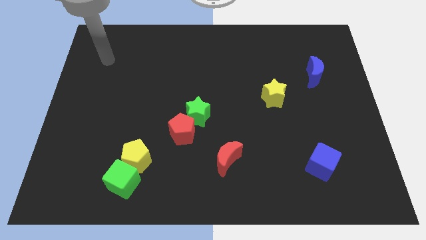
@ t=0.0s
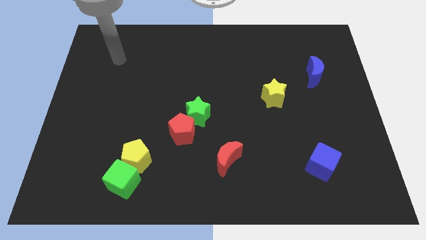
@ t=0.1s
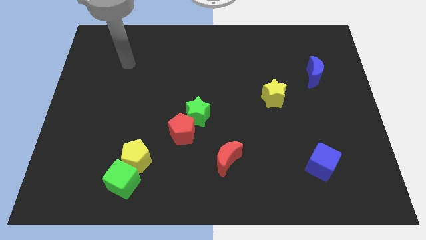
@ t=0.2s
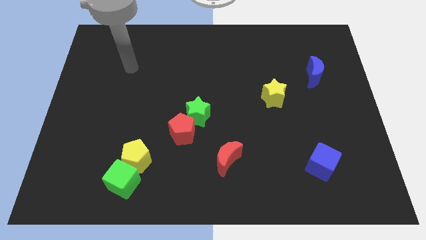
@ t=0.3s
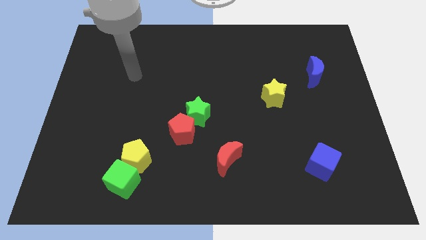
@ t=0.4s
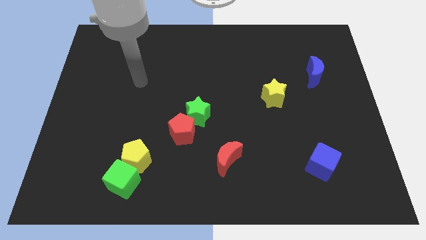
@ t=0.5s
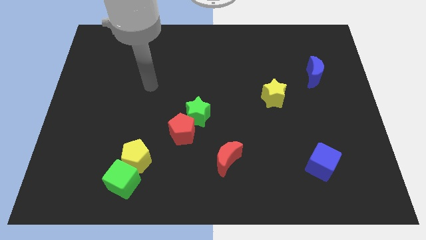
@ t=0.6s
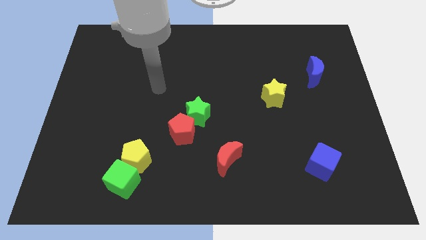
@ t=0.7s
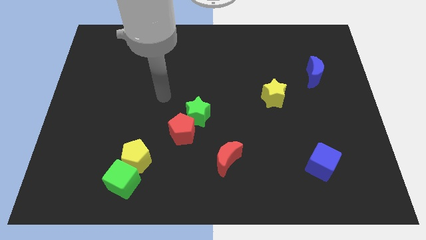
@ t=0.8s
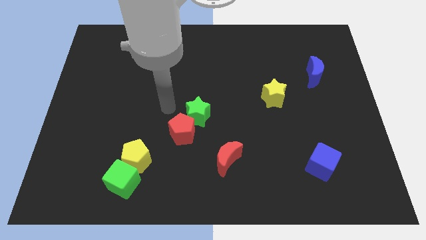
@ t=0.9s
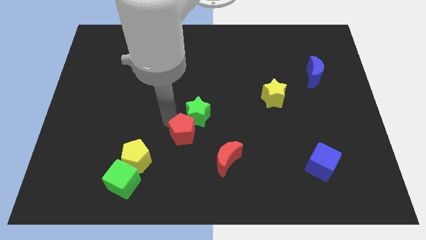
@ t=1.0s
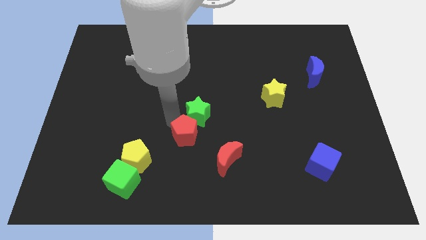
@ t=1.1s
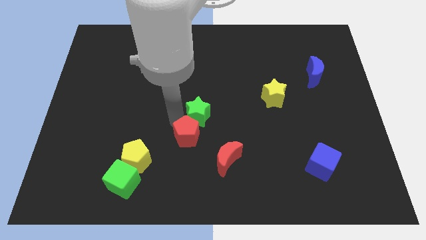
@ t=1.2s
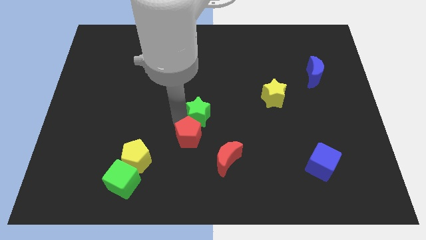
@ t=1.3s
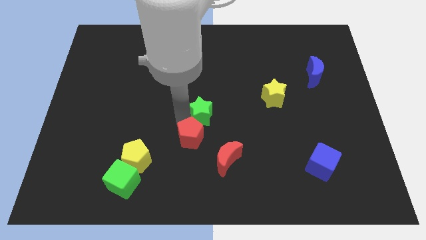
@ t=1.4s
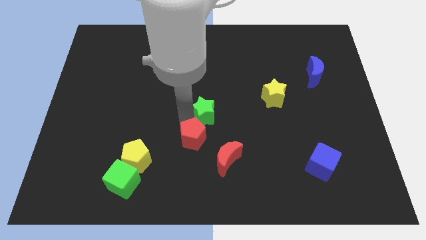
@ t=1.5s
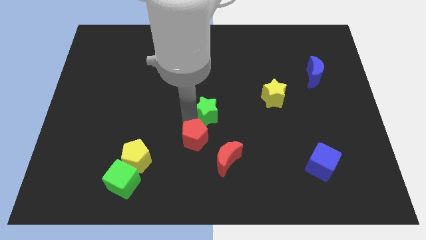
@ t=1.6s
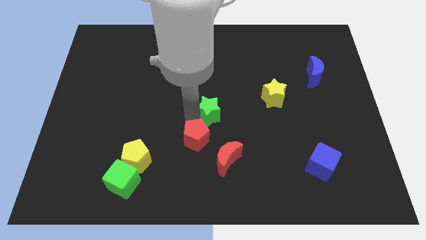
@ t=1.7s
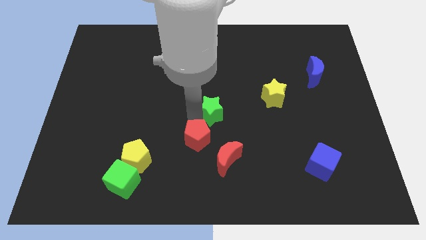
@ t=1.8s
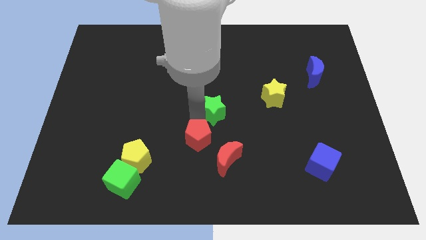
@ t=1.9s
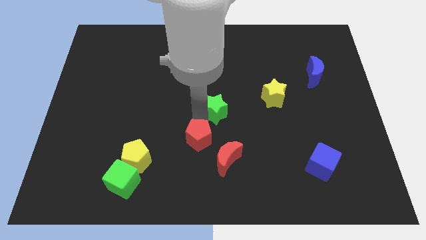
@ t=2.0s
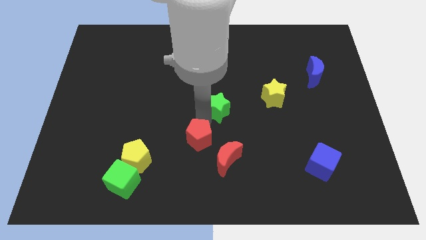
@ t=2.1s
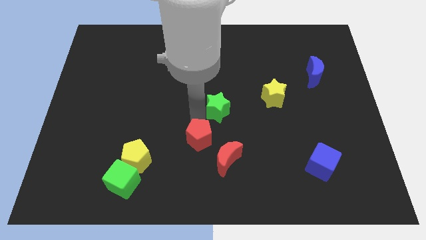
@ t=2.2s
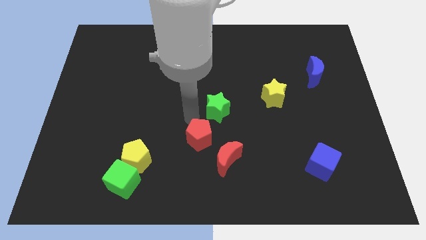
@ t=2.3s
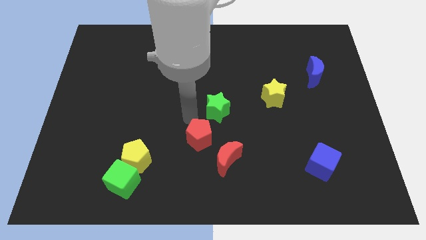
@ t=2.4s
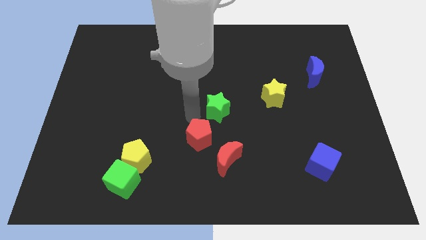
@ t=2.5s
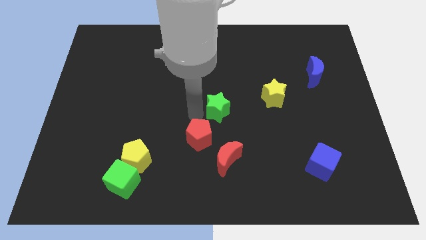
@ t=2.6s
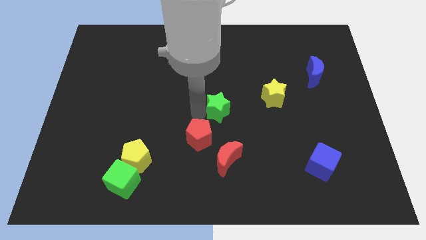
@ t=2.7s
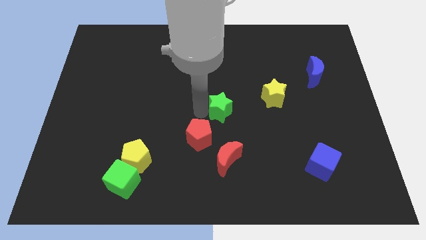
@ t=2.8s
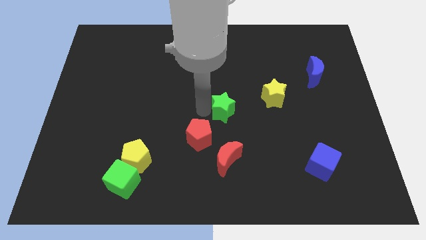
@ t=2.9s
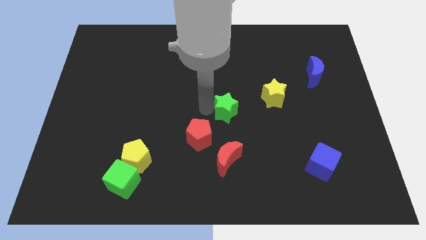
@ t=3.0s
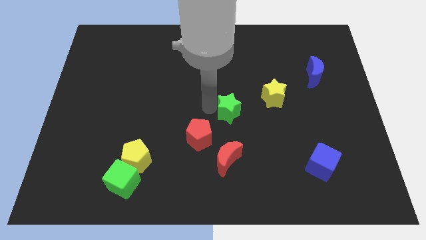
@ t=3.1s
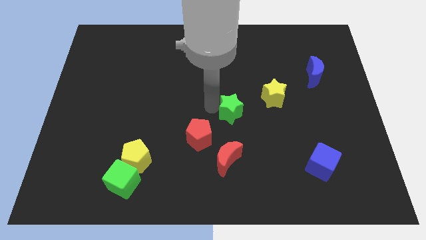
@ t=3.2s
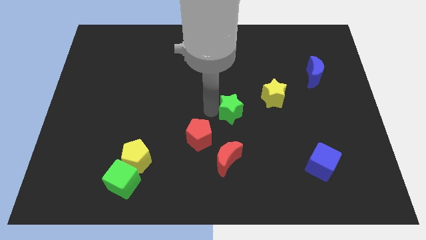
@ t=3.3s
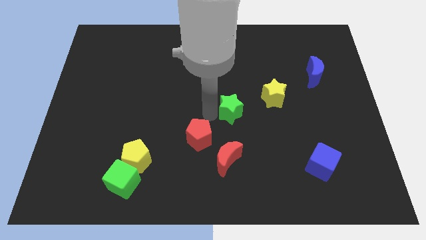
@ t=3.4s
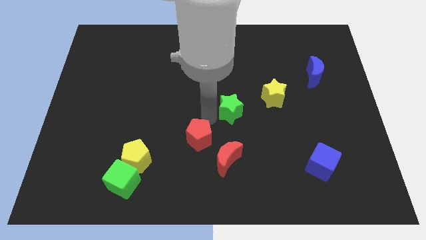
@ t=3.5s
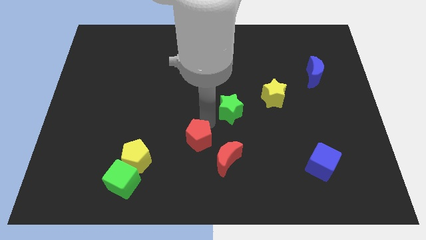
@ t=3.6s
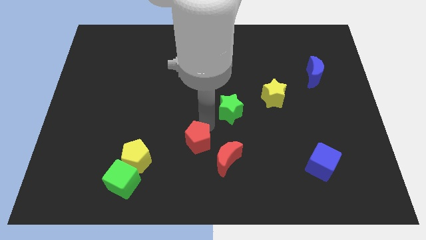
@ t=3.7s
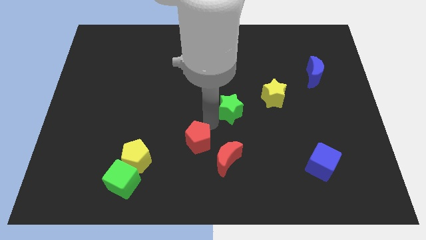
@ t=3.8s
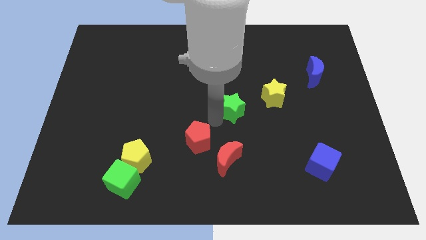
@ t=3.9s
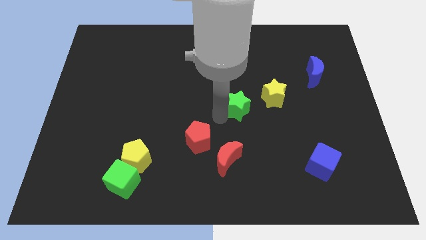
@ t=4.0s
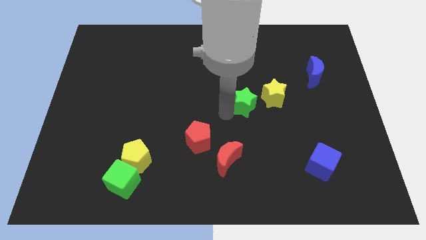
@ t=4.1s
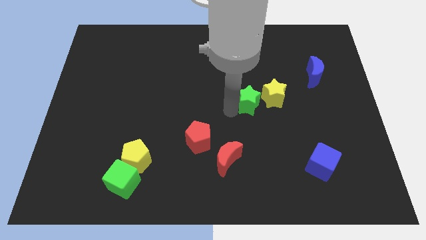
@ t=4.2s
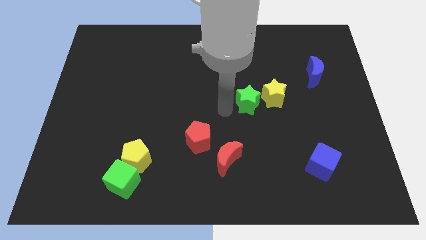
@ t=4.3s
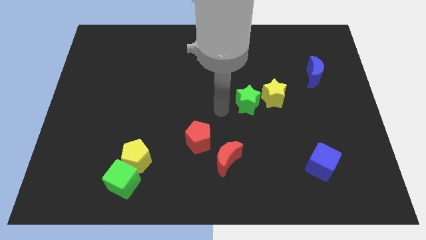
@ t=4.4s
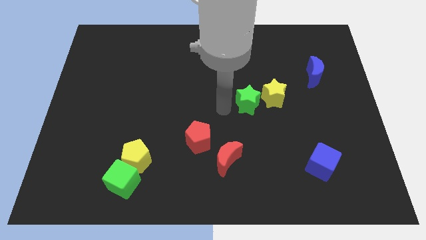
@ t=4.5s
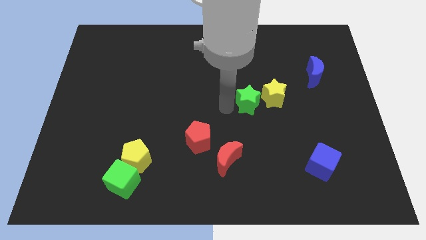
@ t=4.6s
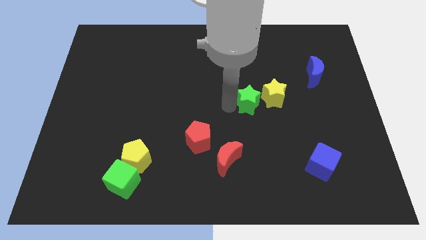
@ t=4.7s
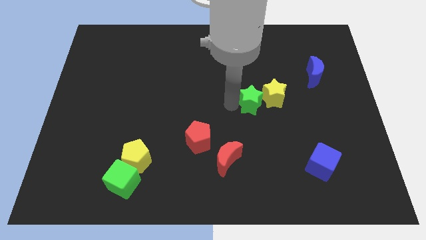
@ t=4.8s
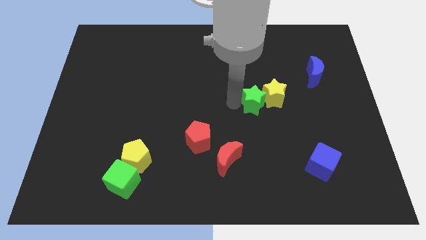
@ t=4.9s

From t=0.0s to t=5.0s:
push the green star close to the yellow star

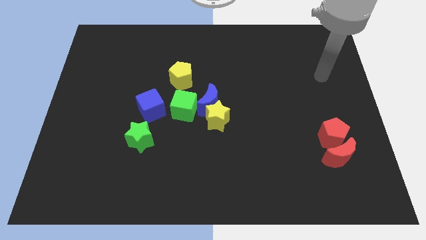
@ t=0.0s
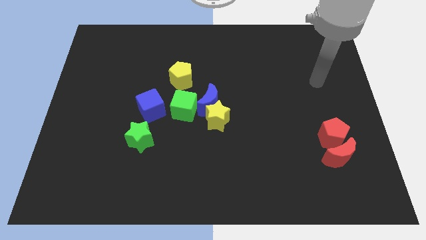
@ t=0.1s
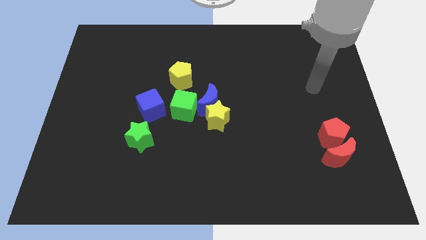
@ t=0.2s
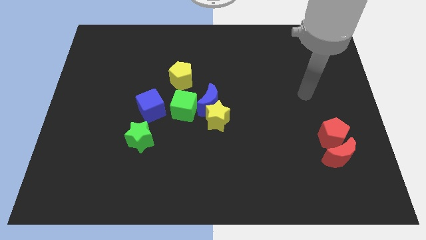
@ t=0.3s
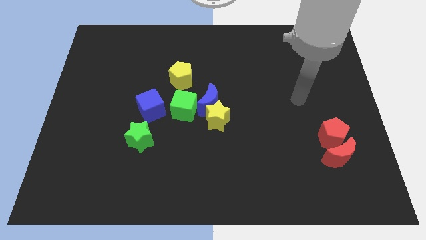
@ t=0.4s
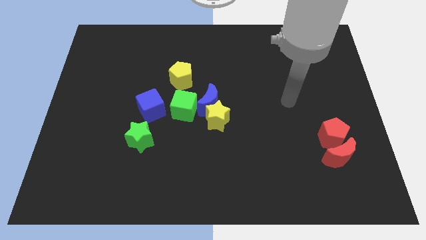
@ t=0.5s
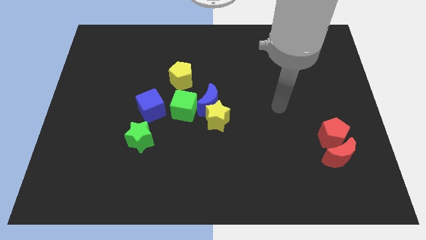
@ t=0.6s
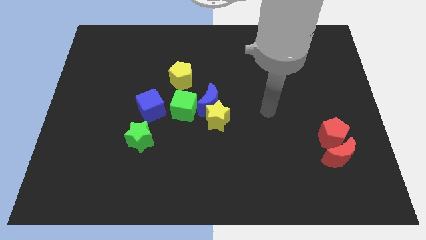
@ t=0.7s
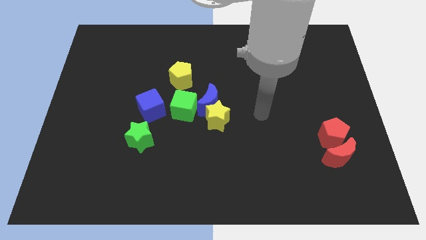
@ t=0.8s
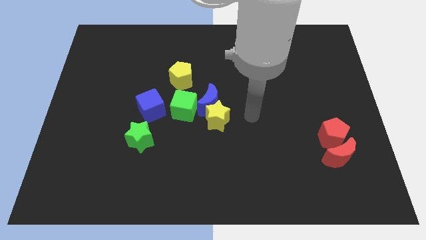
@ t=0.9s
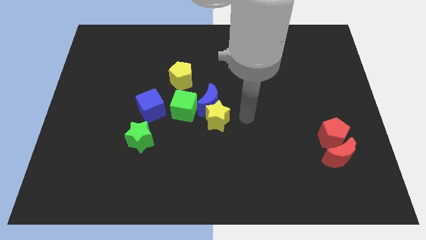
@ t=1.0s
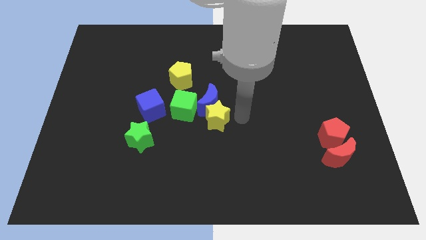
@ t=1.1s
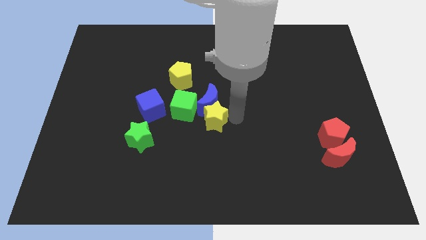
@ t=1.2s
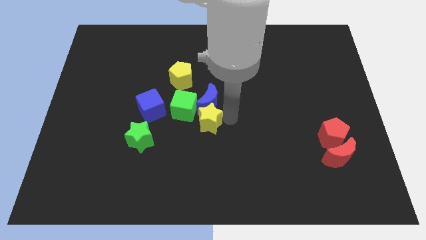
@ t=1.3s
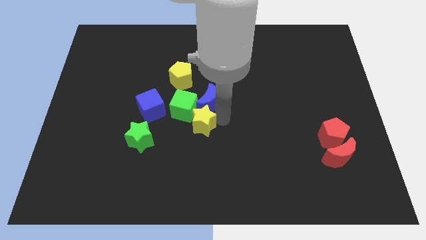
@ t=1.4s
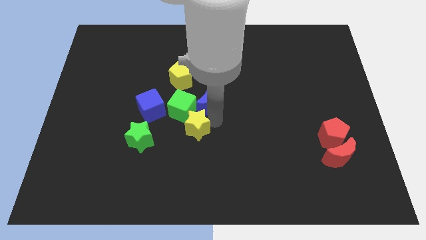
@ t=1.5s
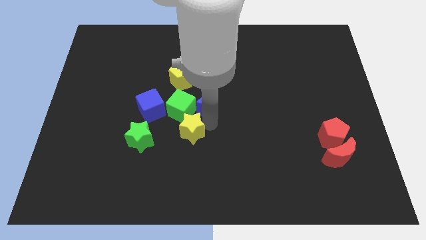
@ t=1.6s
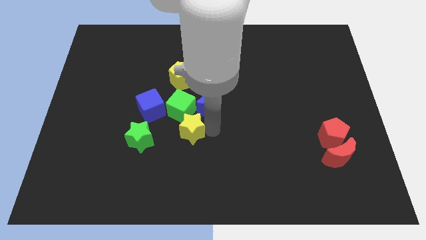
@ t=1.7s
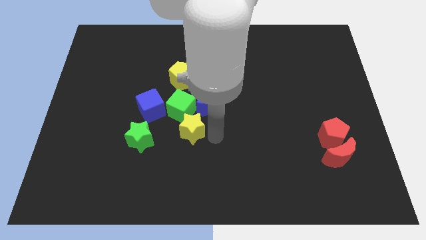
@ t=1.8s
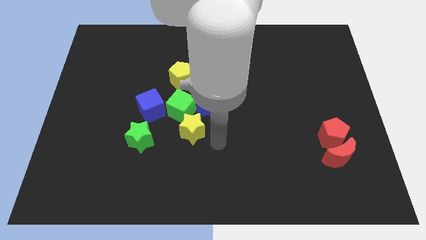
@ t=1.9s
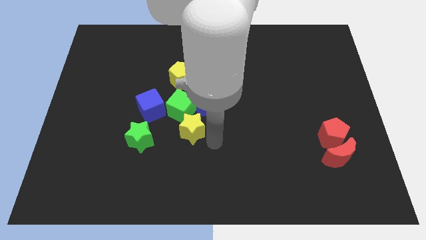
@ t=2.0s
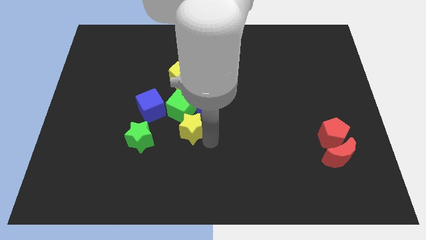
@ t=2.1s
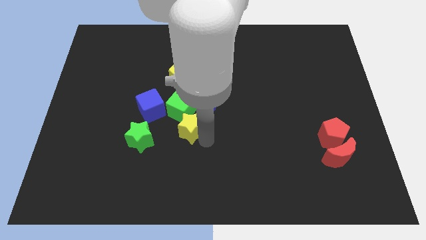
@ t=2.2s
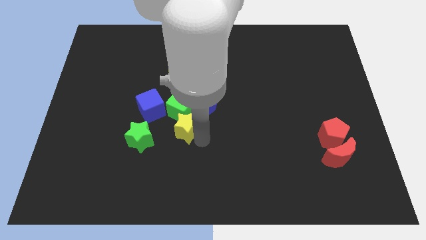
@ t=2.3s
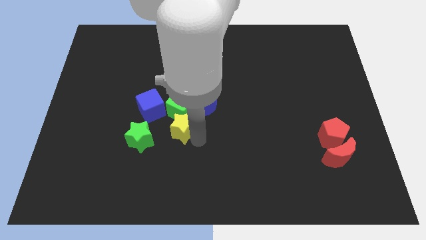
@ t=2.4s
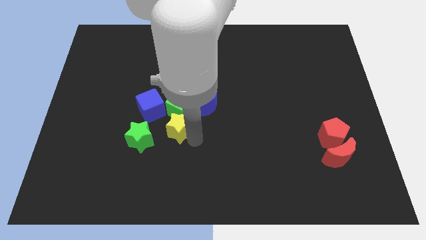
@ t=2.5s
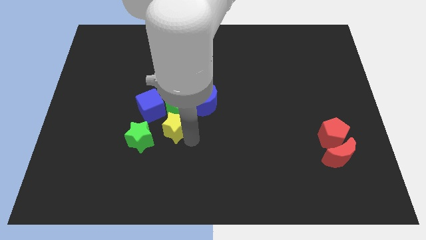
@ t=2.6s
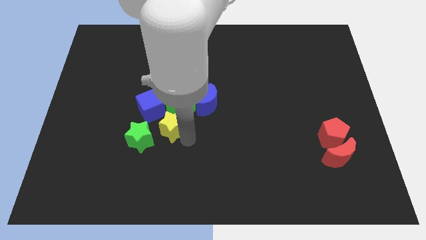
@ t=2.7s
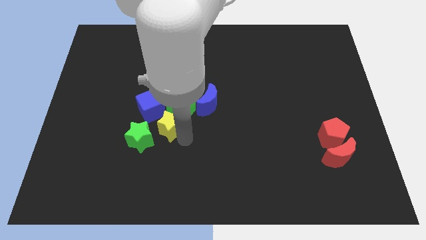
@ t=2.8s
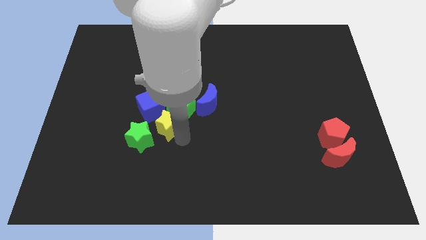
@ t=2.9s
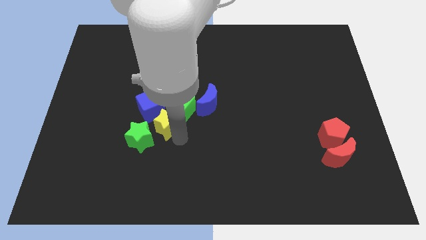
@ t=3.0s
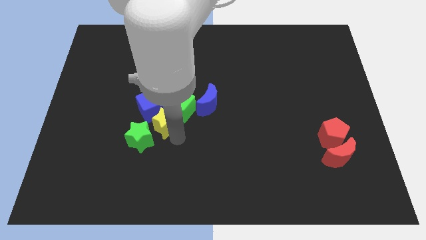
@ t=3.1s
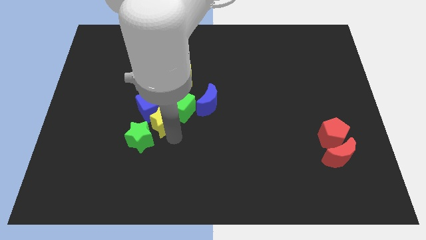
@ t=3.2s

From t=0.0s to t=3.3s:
push the yellow star close to the blue cube
